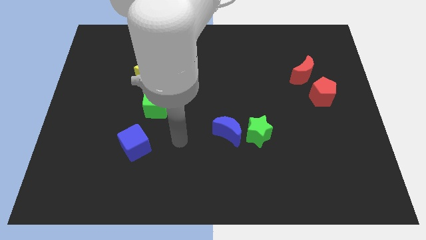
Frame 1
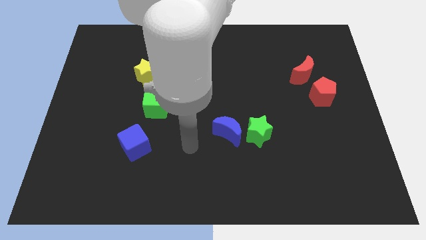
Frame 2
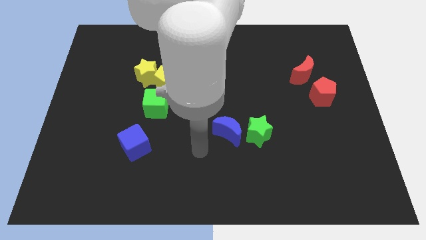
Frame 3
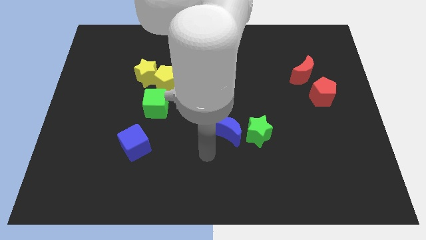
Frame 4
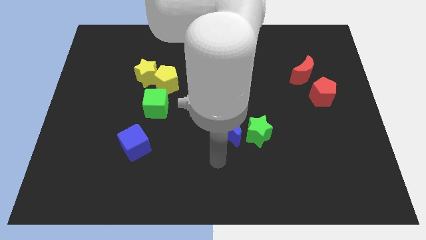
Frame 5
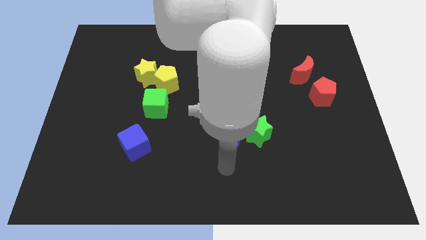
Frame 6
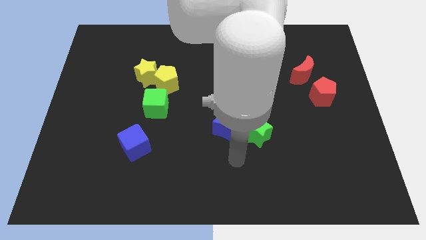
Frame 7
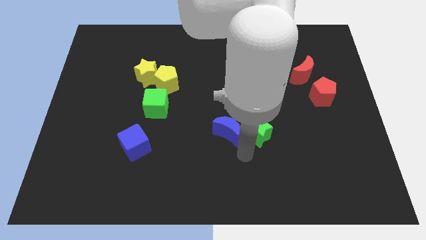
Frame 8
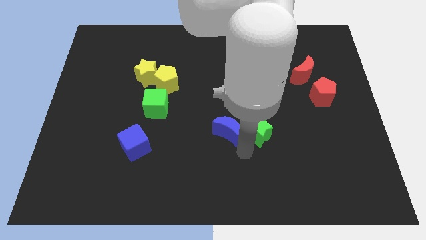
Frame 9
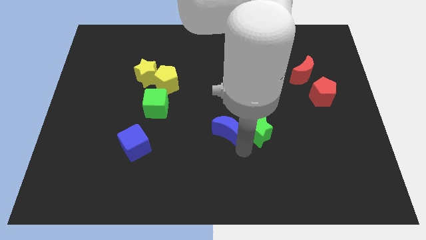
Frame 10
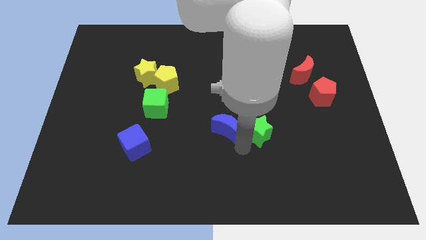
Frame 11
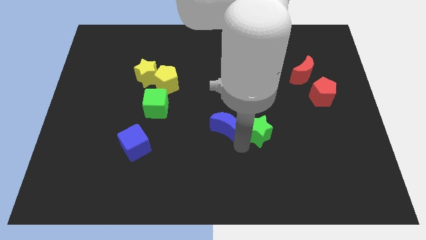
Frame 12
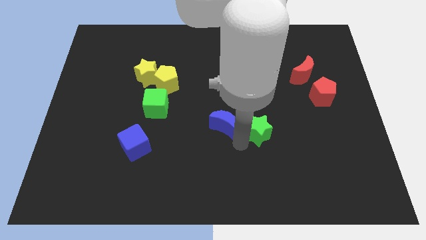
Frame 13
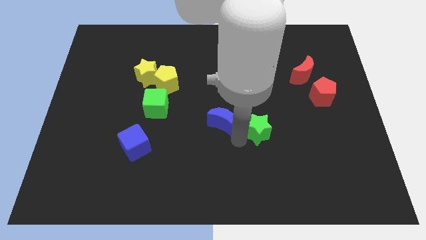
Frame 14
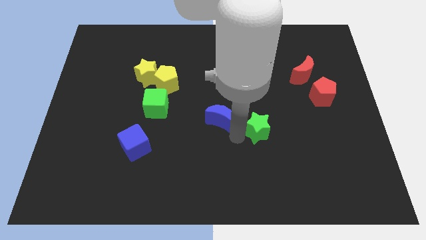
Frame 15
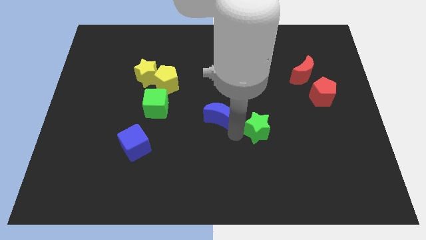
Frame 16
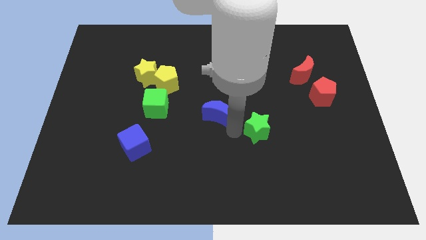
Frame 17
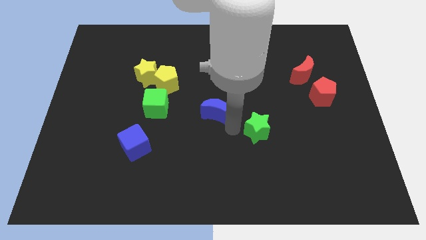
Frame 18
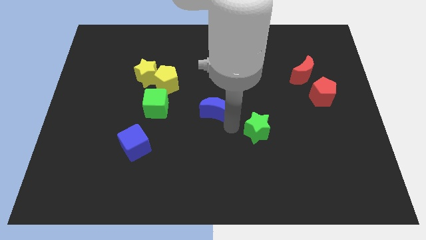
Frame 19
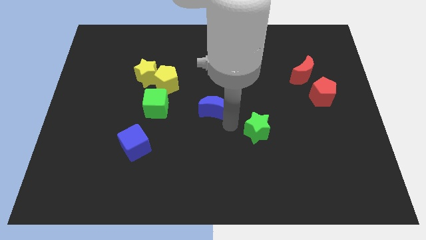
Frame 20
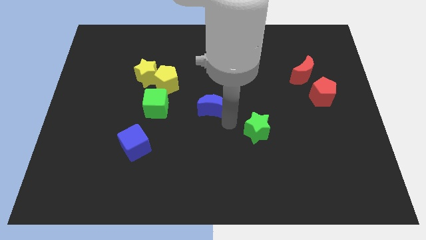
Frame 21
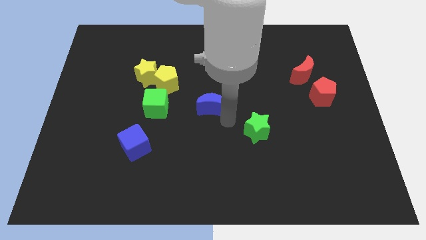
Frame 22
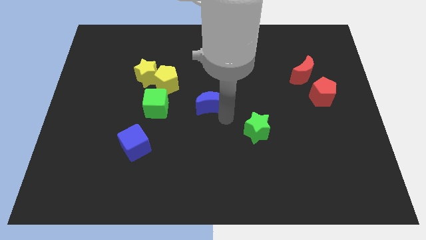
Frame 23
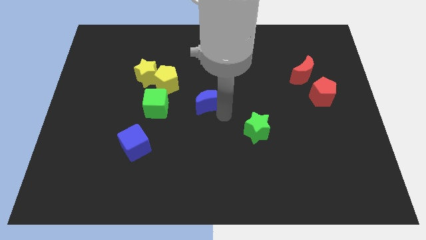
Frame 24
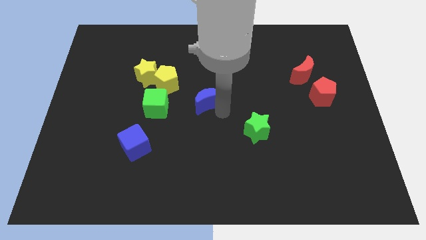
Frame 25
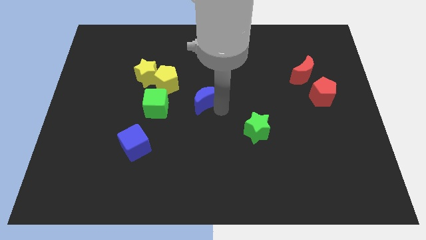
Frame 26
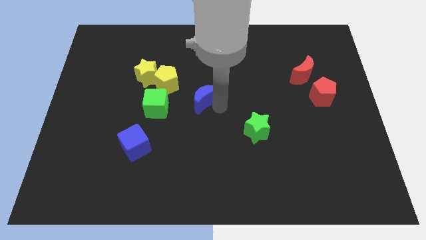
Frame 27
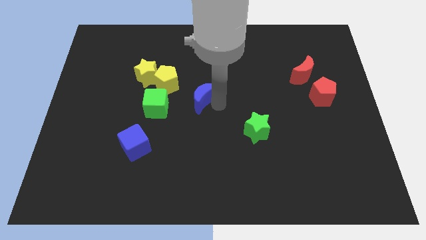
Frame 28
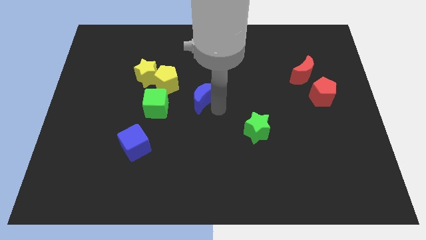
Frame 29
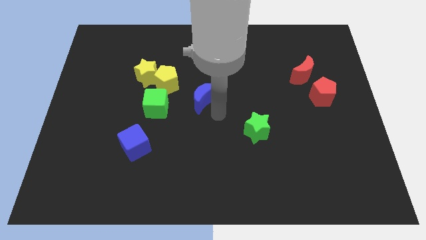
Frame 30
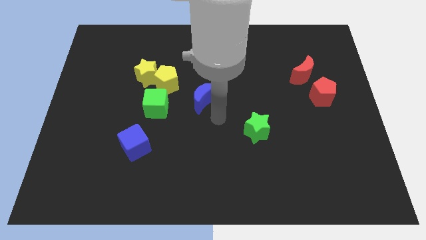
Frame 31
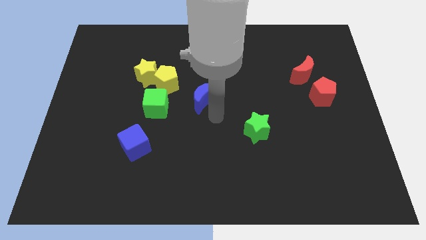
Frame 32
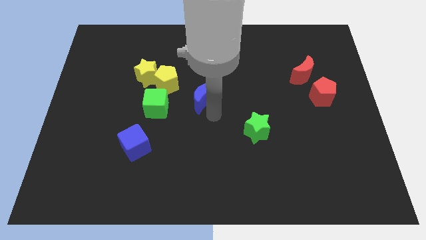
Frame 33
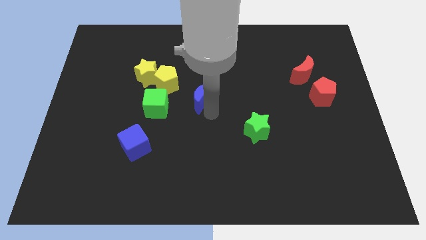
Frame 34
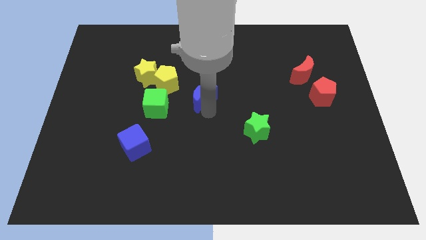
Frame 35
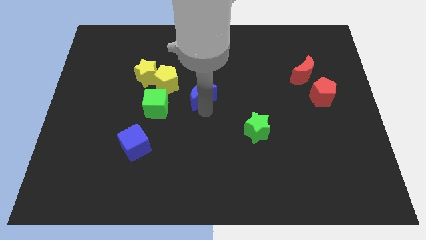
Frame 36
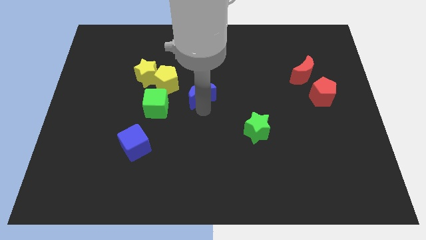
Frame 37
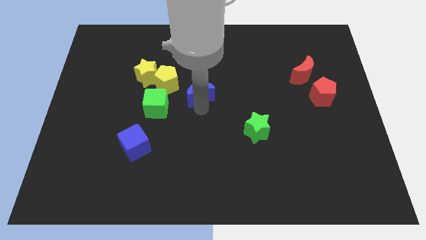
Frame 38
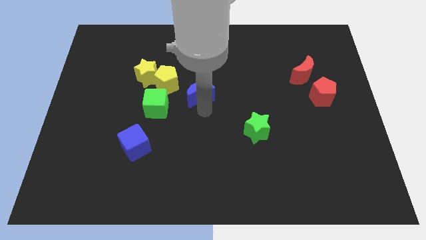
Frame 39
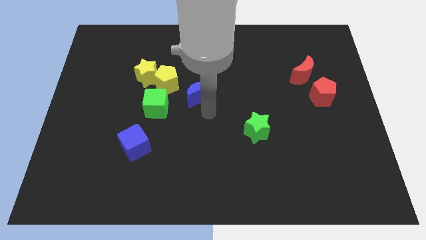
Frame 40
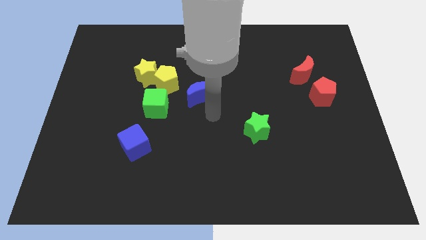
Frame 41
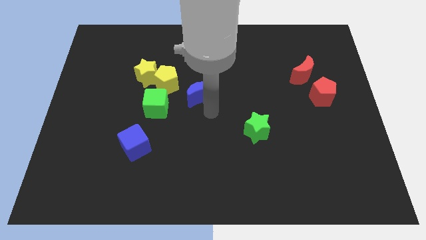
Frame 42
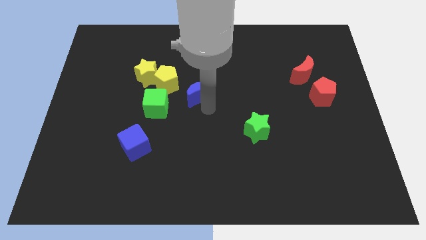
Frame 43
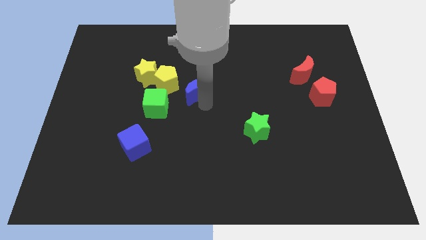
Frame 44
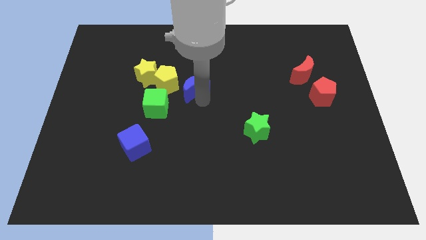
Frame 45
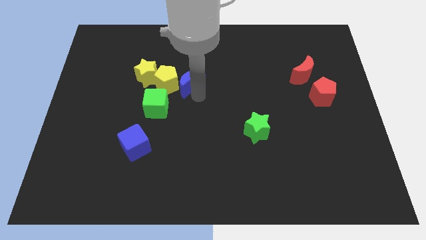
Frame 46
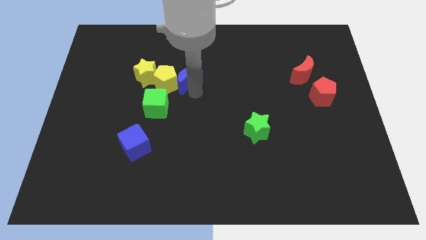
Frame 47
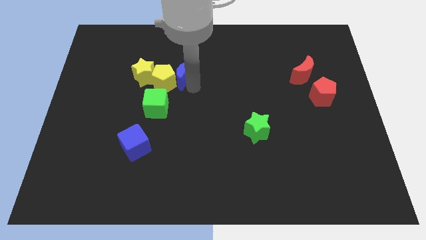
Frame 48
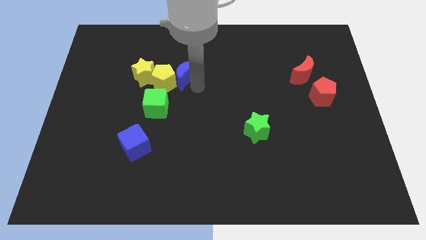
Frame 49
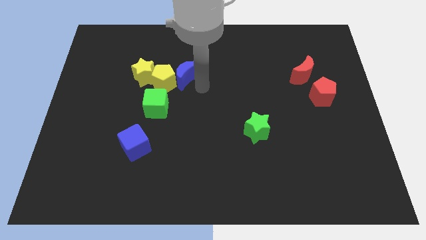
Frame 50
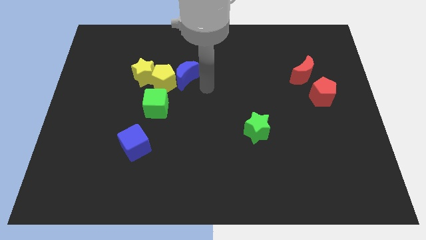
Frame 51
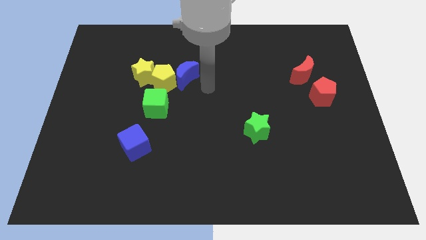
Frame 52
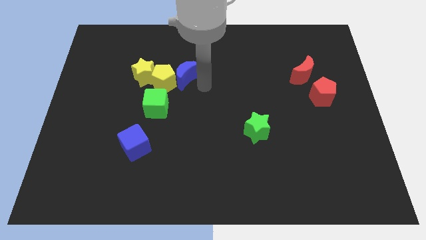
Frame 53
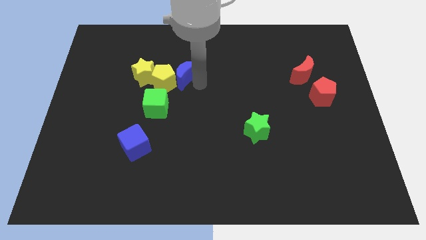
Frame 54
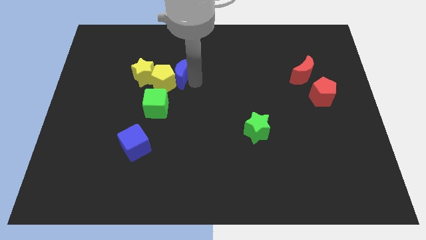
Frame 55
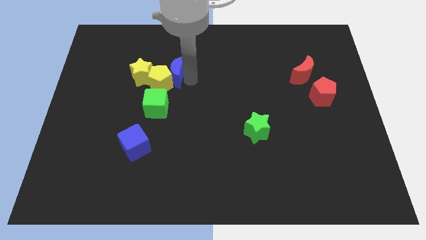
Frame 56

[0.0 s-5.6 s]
push the blue moon diagonally upwards and to the left

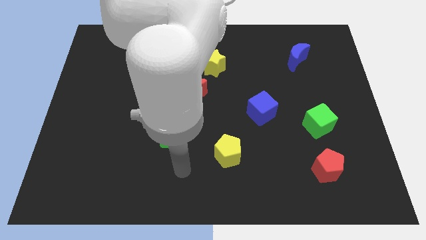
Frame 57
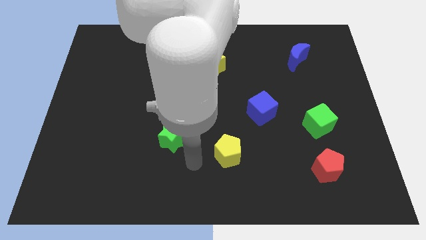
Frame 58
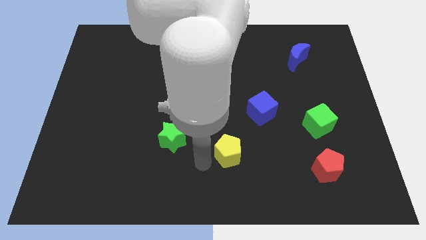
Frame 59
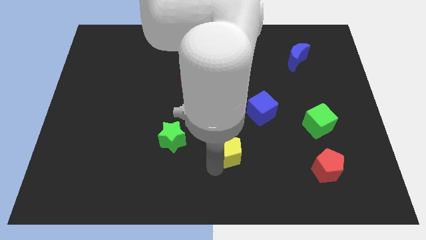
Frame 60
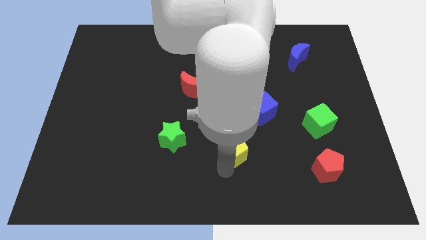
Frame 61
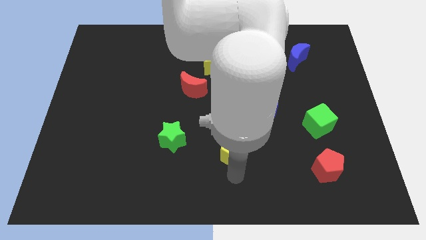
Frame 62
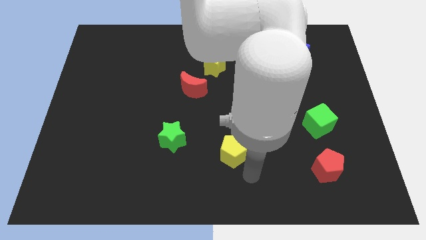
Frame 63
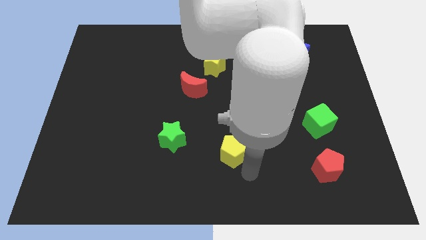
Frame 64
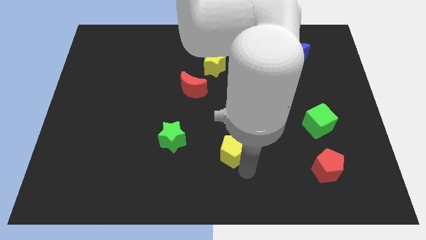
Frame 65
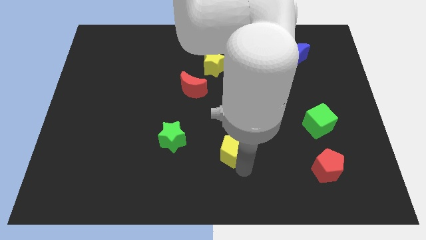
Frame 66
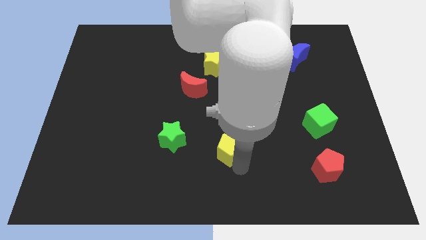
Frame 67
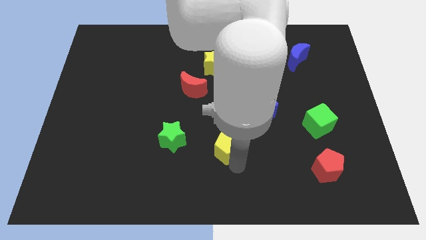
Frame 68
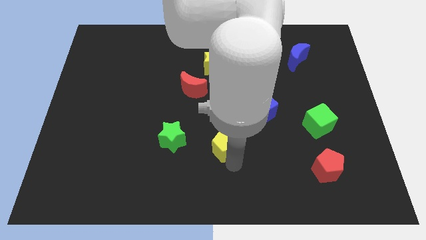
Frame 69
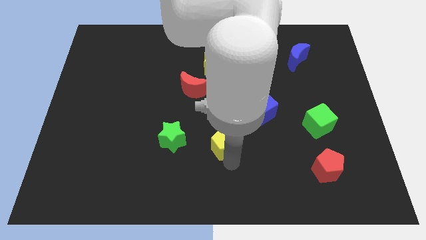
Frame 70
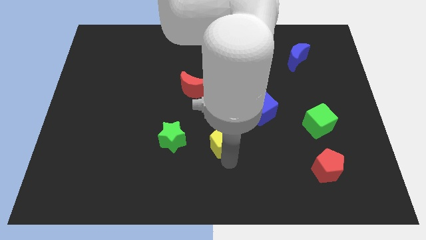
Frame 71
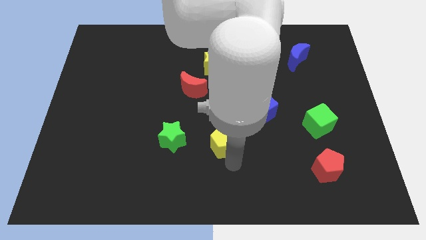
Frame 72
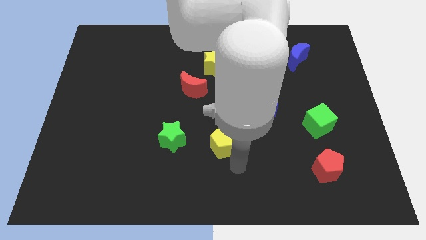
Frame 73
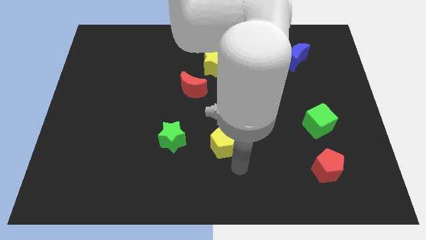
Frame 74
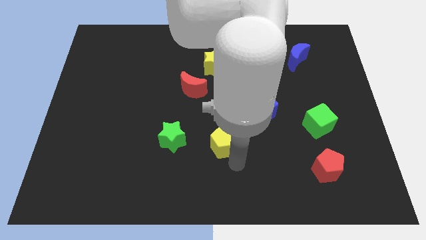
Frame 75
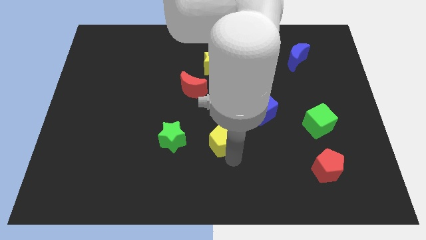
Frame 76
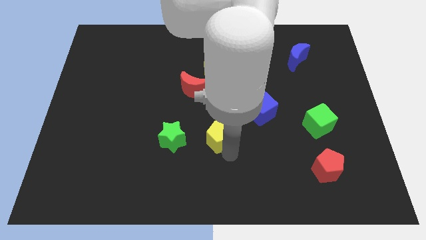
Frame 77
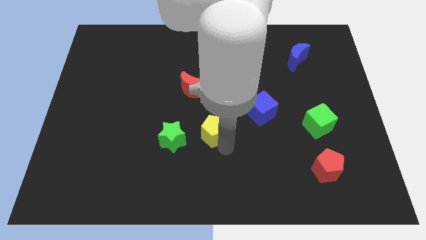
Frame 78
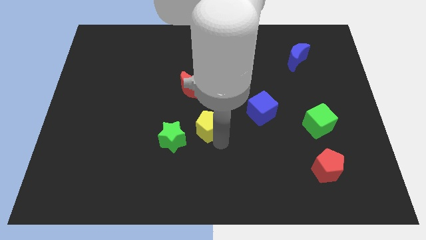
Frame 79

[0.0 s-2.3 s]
slide the yellow pentagon upwards and then left a little bit
